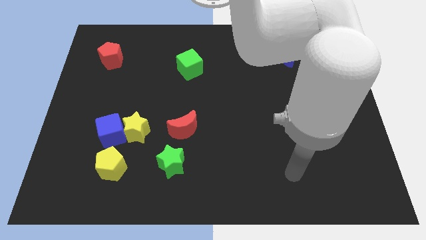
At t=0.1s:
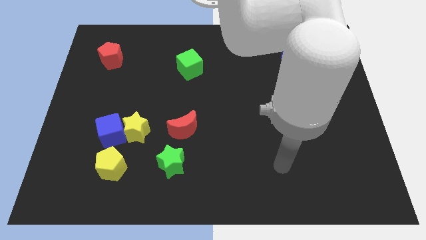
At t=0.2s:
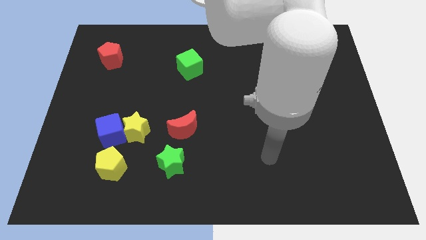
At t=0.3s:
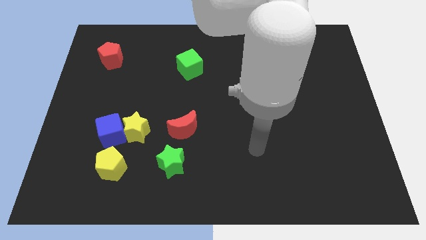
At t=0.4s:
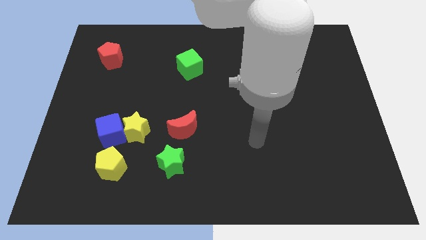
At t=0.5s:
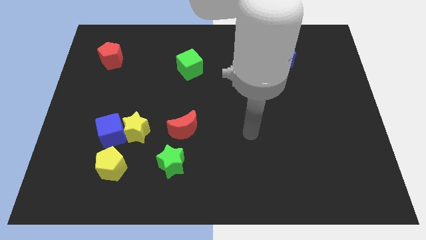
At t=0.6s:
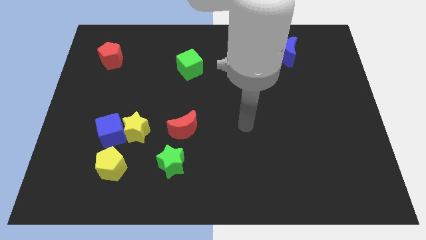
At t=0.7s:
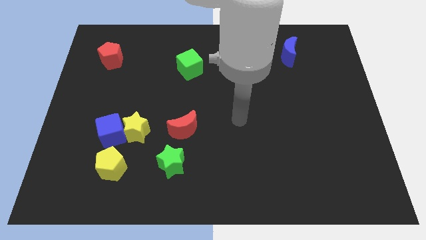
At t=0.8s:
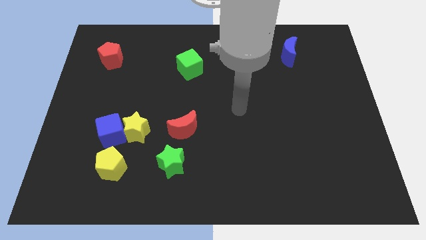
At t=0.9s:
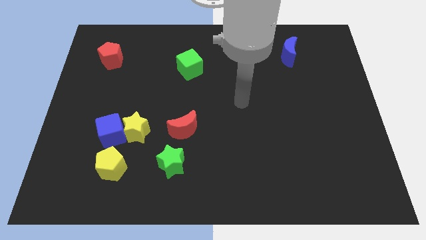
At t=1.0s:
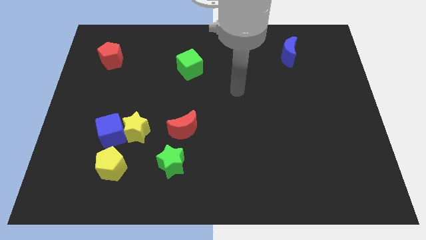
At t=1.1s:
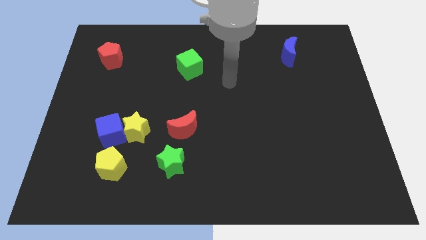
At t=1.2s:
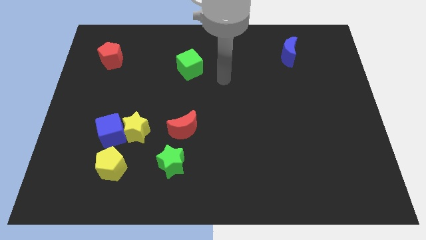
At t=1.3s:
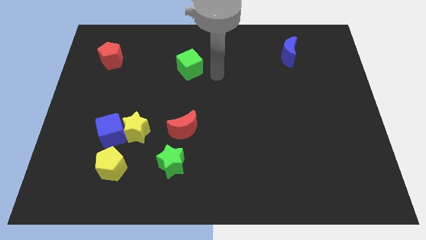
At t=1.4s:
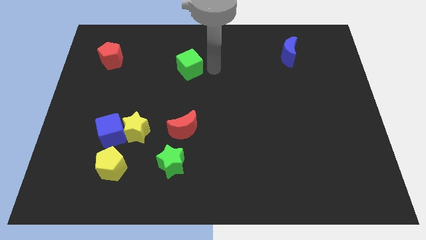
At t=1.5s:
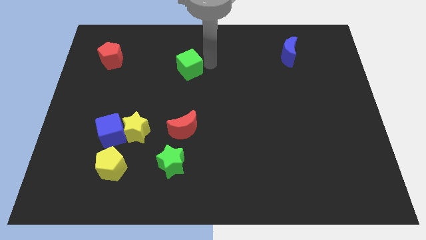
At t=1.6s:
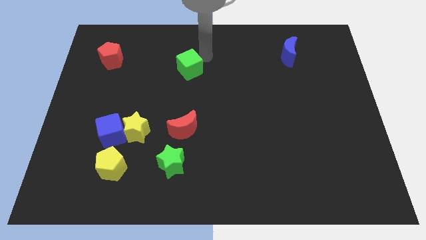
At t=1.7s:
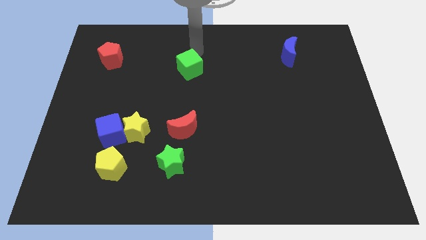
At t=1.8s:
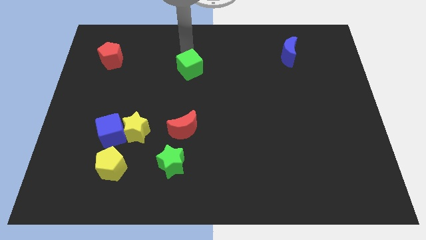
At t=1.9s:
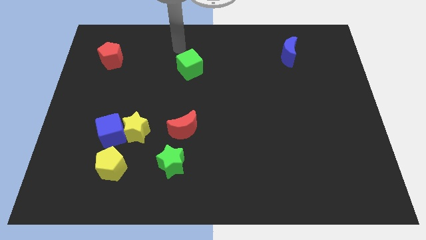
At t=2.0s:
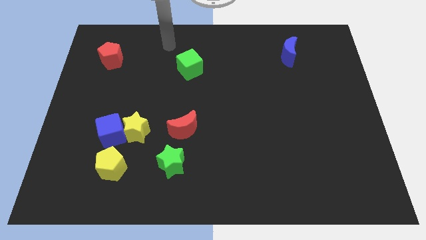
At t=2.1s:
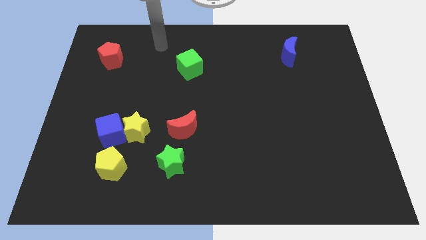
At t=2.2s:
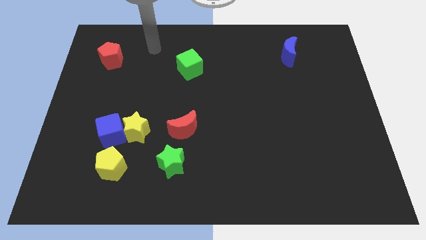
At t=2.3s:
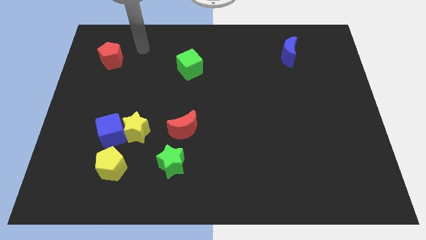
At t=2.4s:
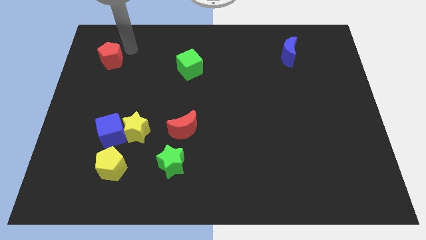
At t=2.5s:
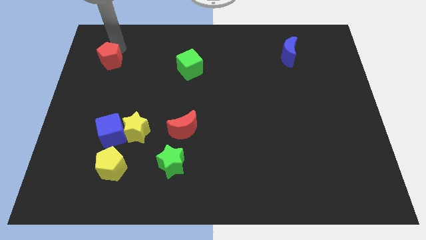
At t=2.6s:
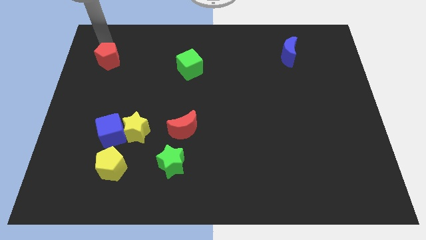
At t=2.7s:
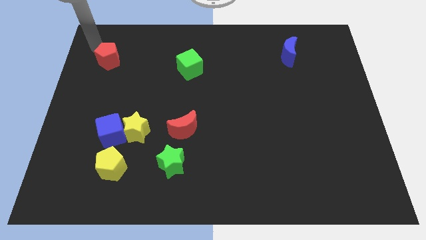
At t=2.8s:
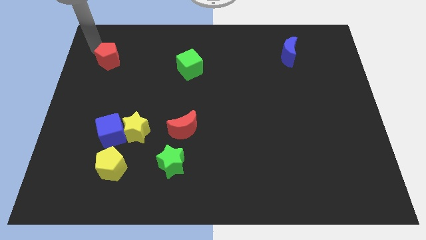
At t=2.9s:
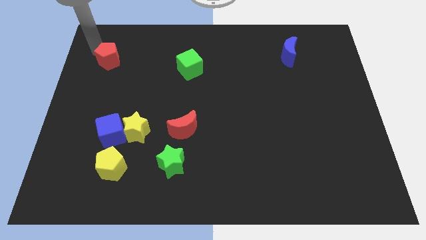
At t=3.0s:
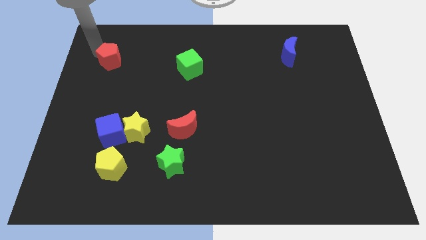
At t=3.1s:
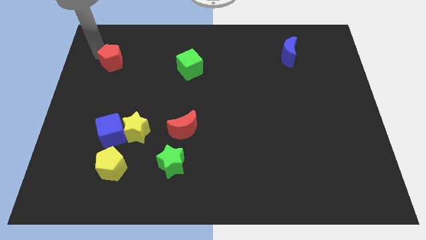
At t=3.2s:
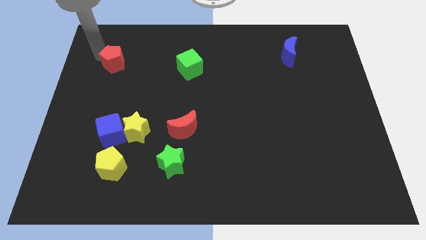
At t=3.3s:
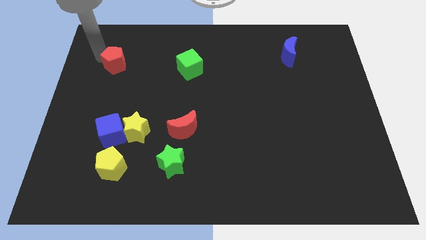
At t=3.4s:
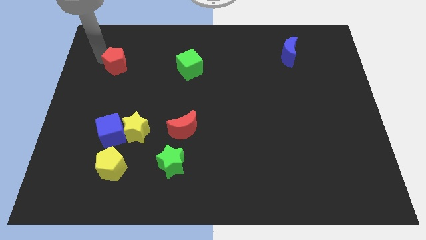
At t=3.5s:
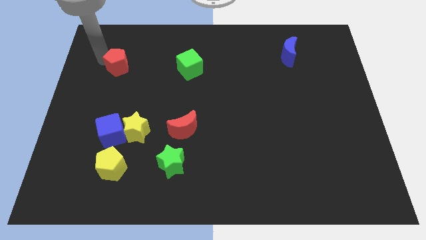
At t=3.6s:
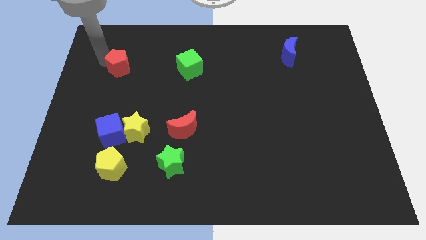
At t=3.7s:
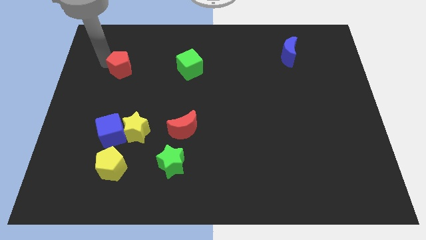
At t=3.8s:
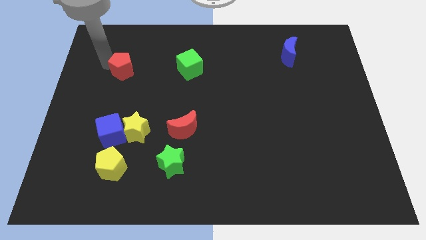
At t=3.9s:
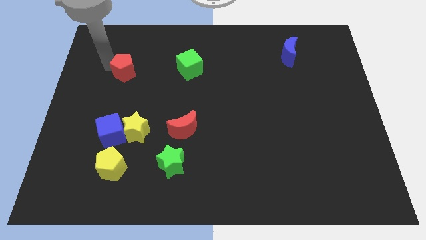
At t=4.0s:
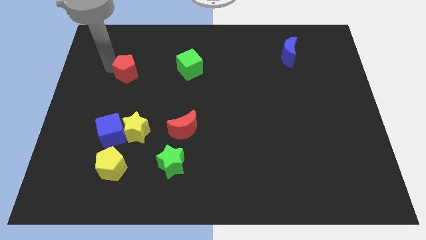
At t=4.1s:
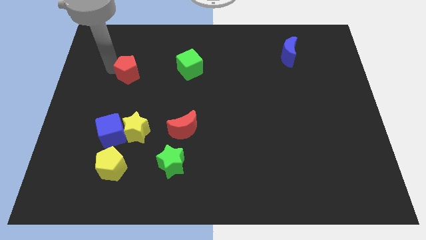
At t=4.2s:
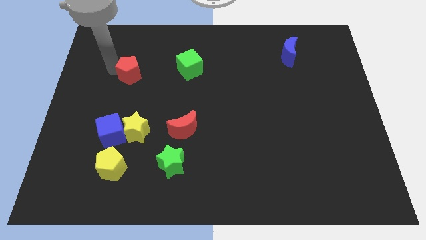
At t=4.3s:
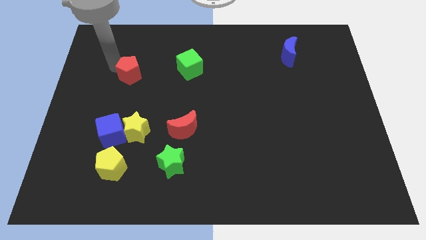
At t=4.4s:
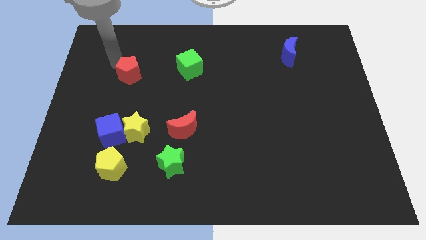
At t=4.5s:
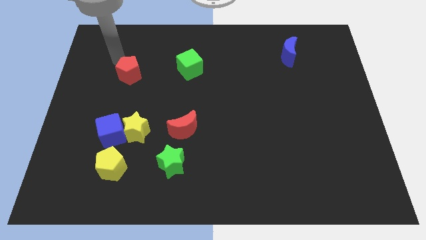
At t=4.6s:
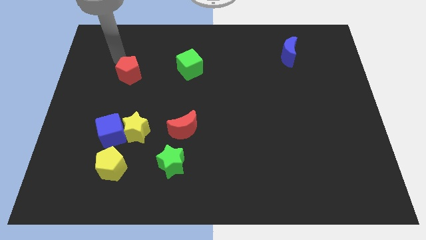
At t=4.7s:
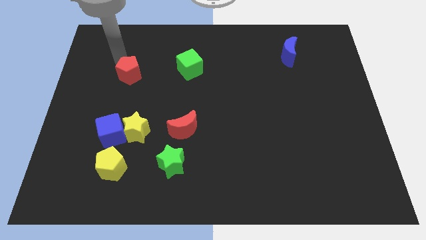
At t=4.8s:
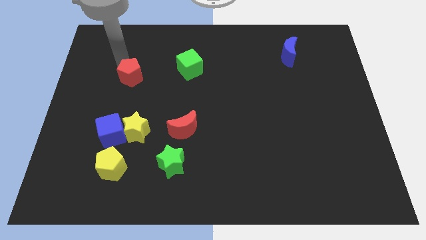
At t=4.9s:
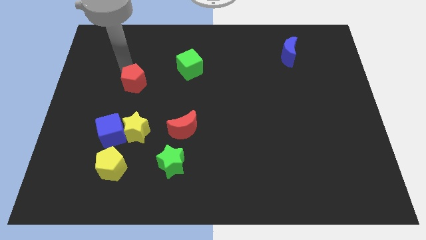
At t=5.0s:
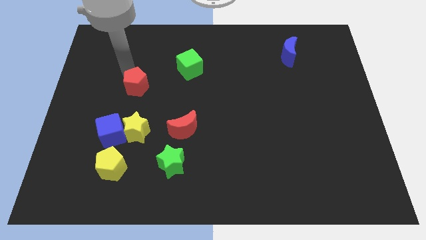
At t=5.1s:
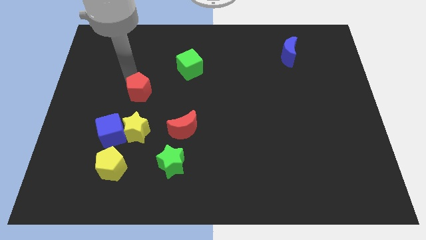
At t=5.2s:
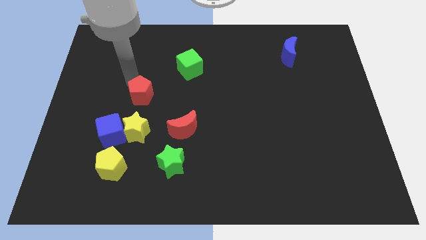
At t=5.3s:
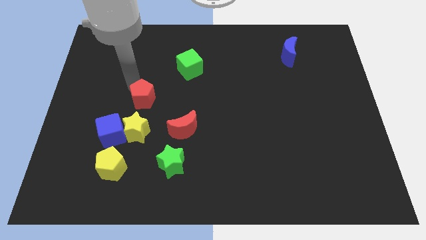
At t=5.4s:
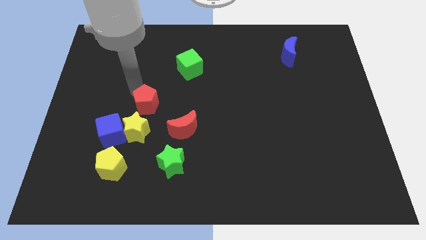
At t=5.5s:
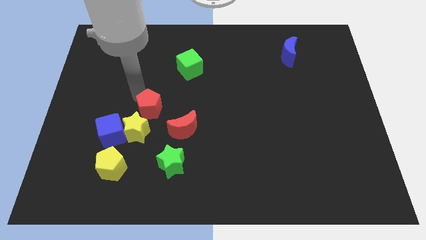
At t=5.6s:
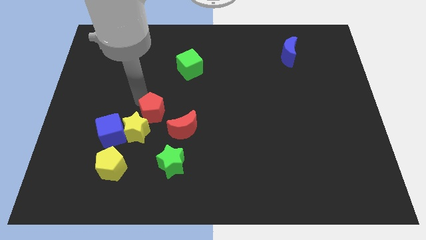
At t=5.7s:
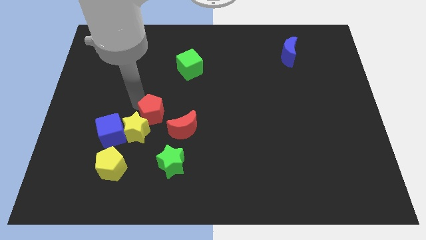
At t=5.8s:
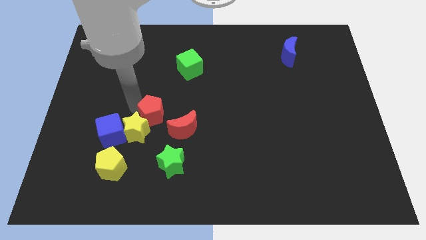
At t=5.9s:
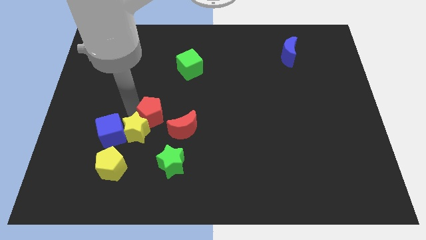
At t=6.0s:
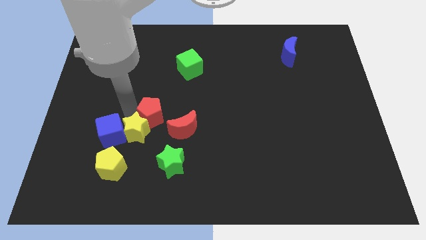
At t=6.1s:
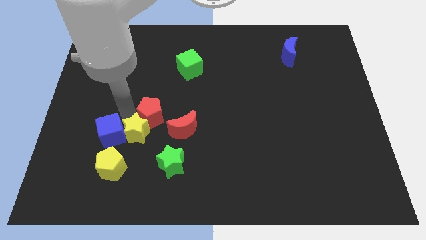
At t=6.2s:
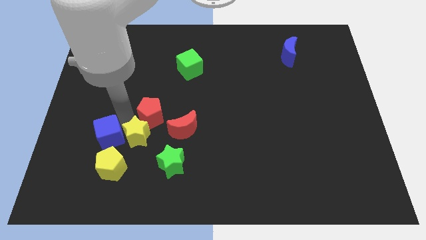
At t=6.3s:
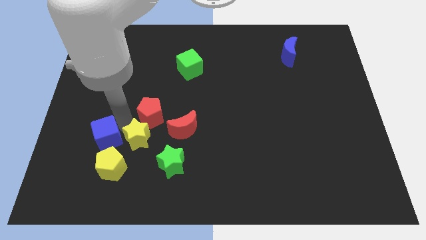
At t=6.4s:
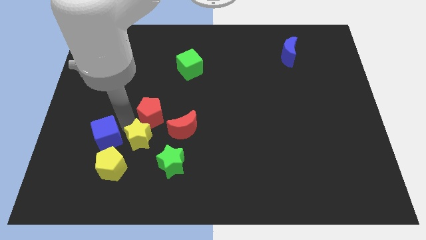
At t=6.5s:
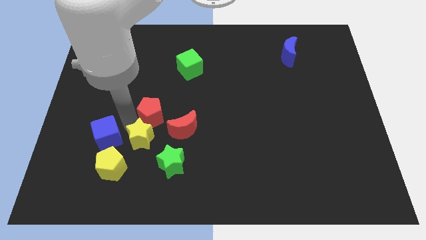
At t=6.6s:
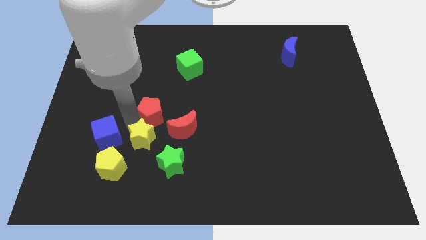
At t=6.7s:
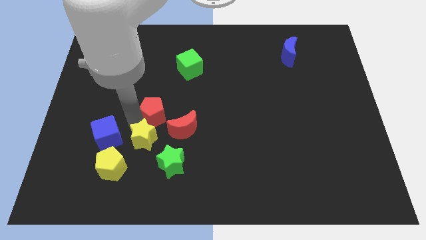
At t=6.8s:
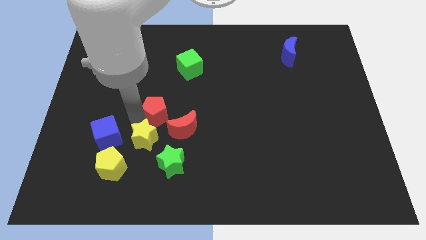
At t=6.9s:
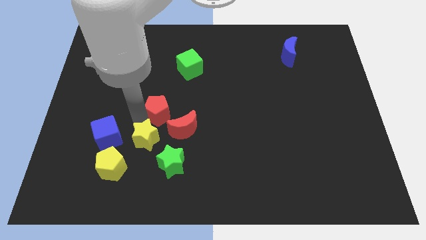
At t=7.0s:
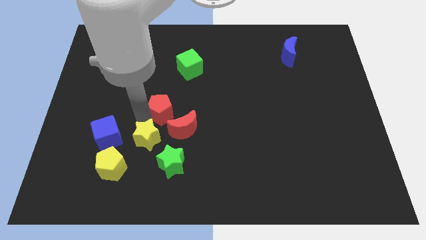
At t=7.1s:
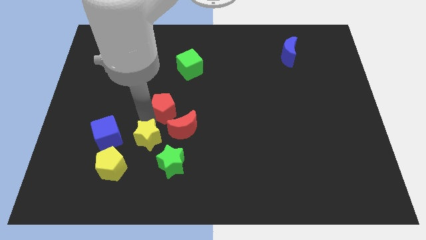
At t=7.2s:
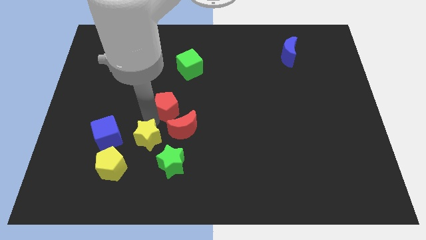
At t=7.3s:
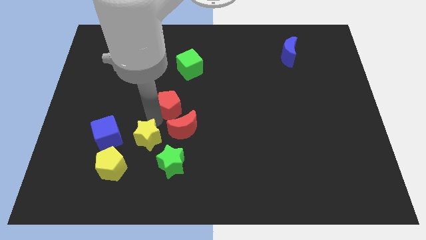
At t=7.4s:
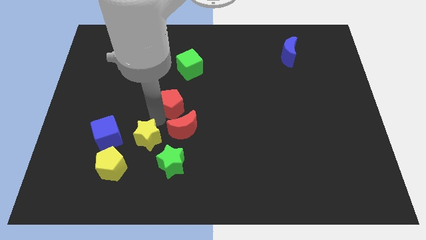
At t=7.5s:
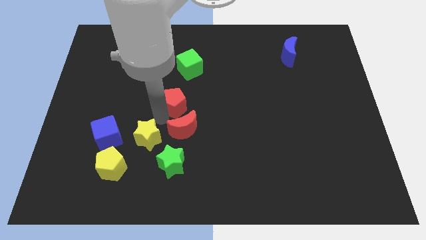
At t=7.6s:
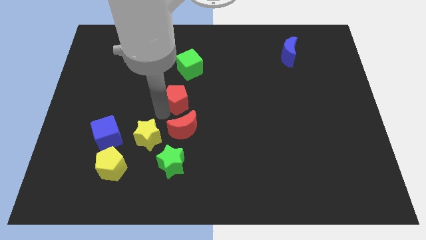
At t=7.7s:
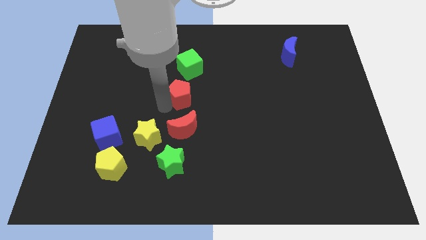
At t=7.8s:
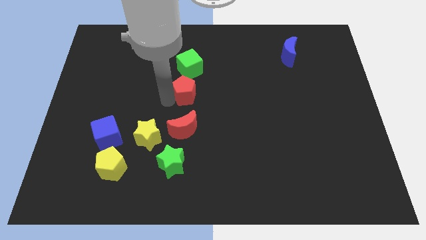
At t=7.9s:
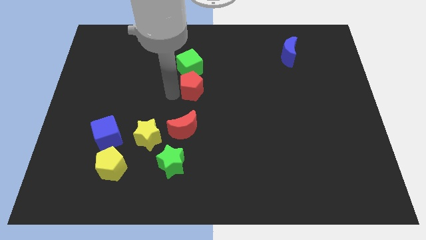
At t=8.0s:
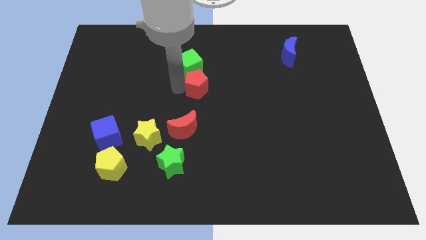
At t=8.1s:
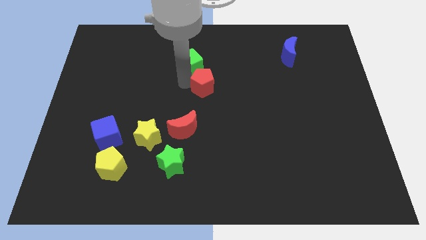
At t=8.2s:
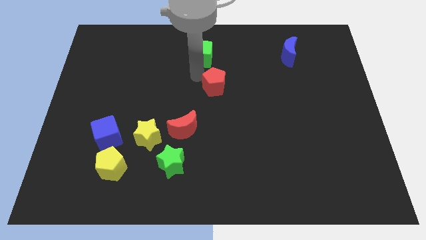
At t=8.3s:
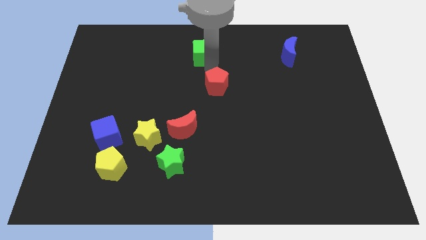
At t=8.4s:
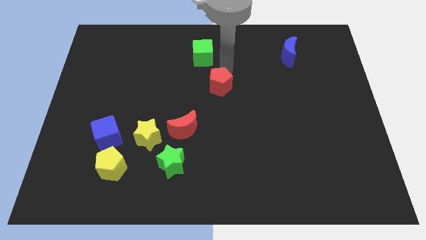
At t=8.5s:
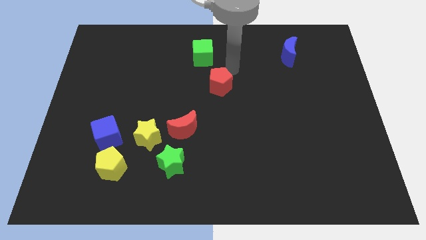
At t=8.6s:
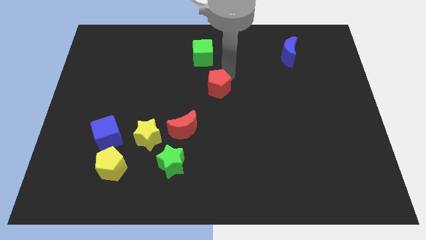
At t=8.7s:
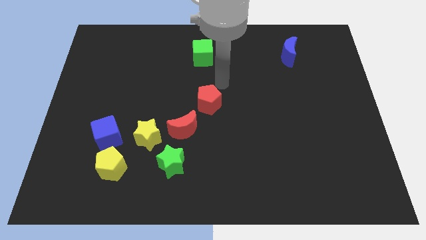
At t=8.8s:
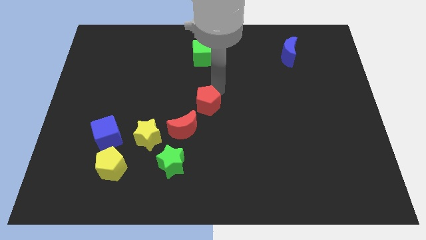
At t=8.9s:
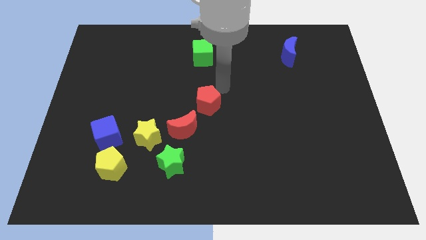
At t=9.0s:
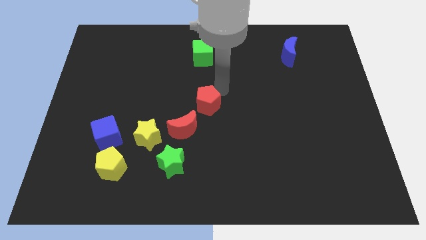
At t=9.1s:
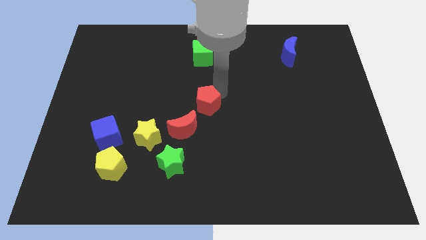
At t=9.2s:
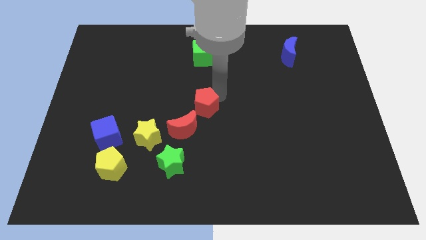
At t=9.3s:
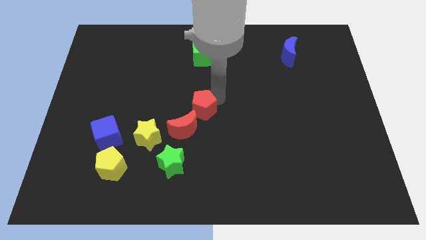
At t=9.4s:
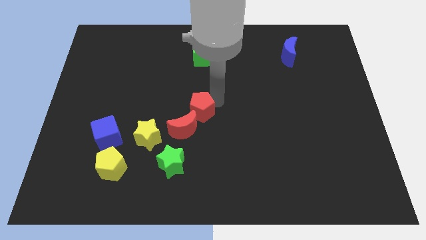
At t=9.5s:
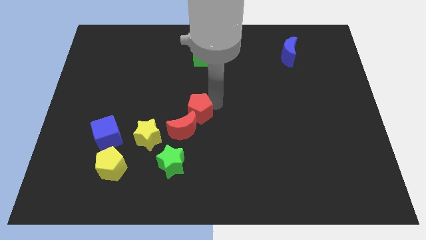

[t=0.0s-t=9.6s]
move the red pentagon towards the red moon
